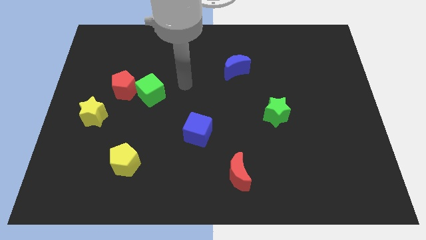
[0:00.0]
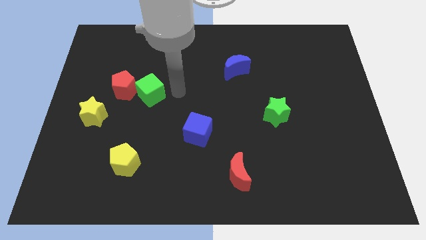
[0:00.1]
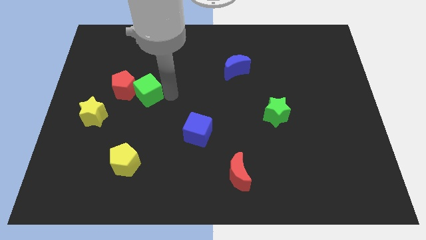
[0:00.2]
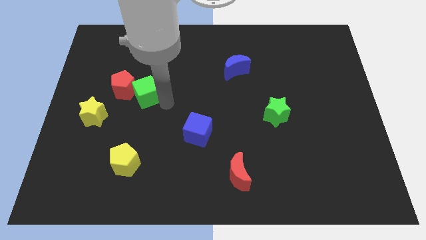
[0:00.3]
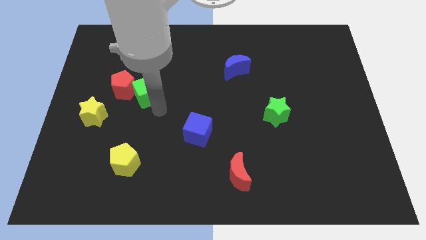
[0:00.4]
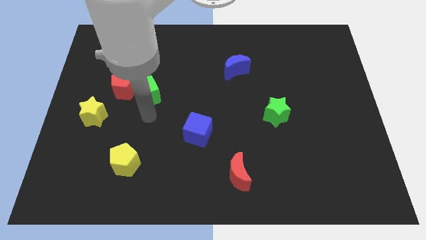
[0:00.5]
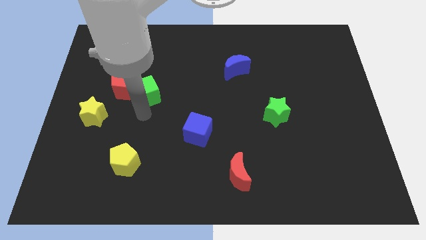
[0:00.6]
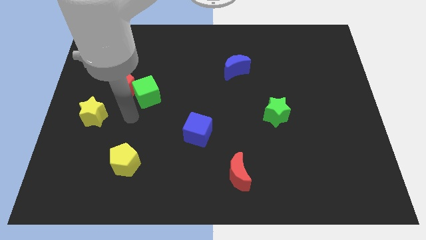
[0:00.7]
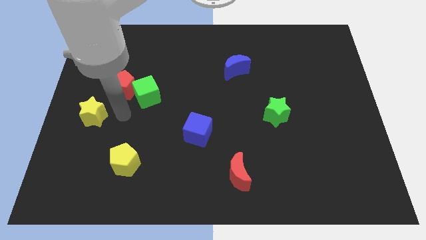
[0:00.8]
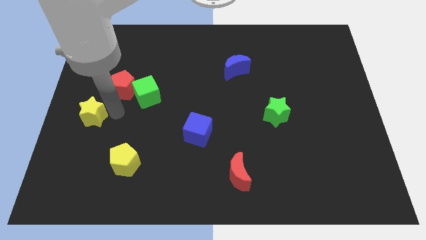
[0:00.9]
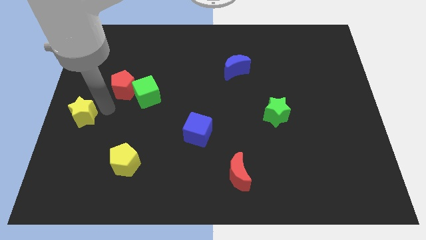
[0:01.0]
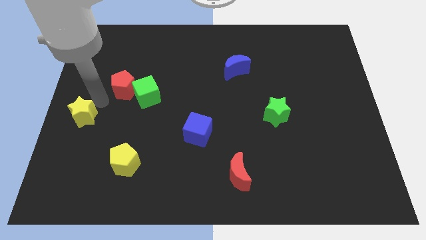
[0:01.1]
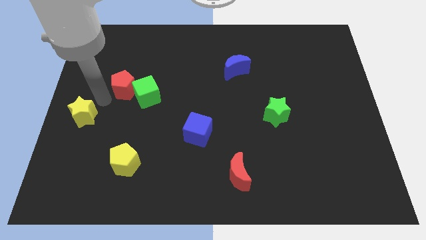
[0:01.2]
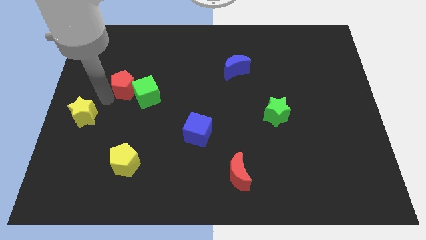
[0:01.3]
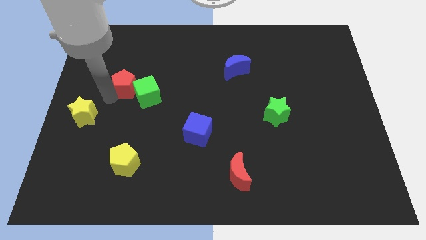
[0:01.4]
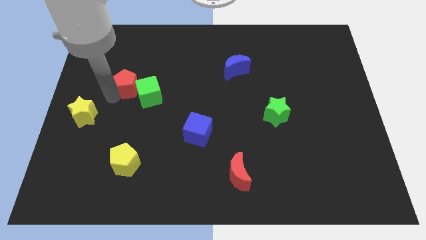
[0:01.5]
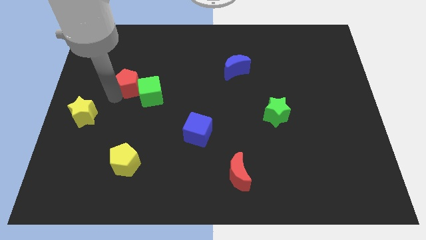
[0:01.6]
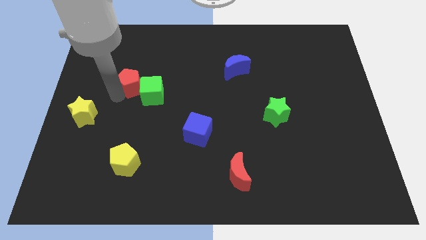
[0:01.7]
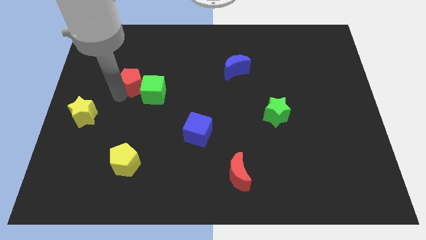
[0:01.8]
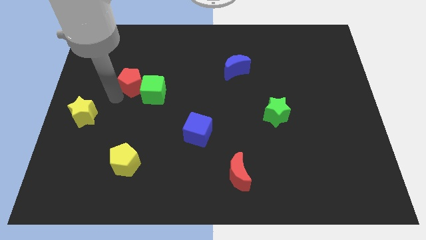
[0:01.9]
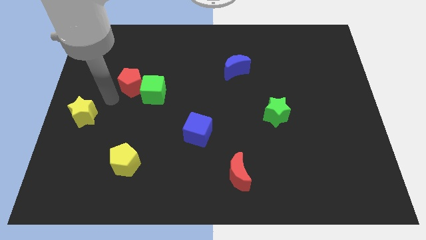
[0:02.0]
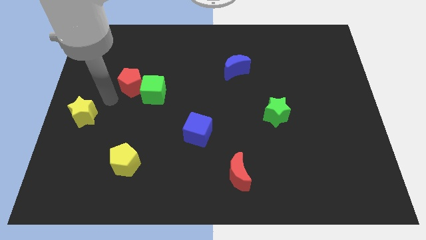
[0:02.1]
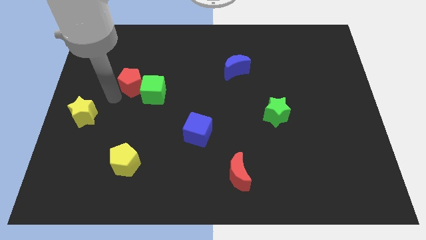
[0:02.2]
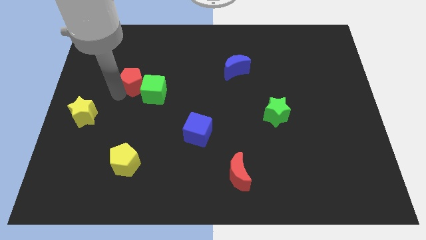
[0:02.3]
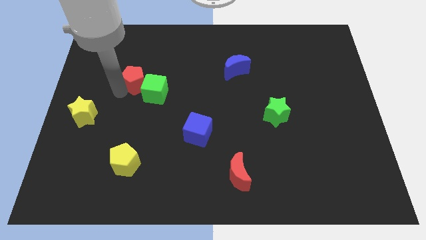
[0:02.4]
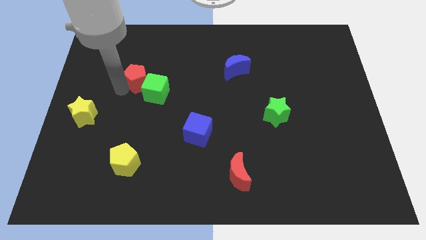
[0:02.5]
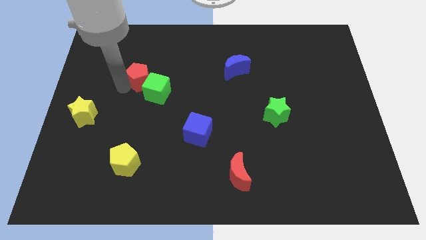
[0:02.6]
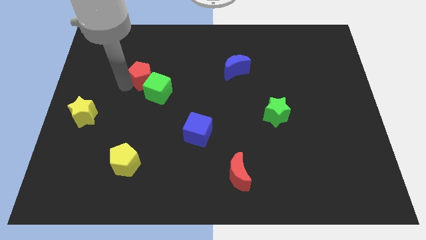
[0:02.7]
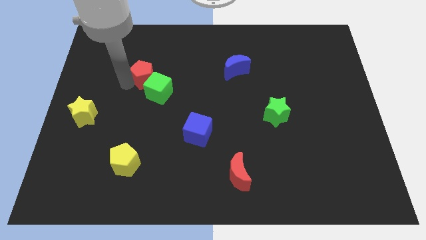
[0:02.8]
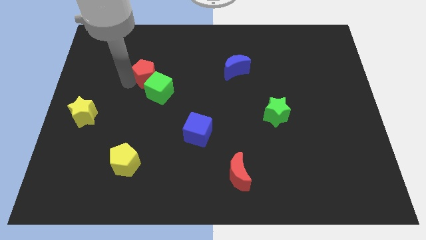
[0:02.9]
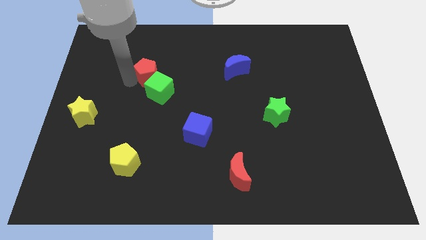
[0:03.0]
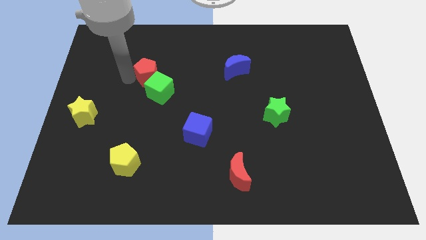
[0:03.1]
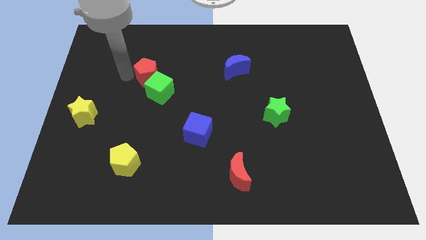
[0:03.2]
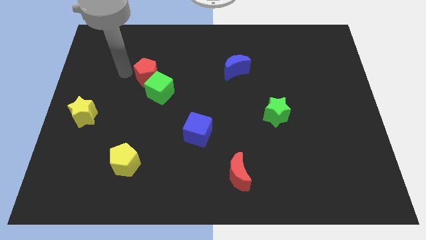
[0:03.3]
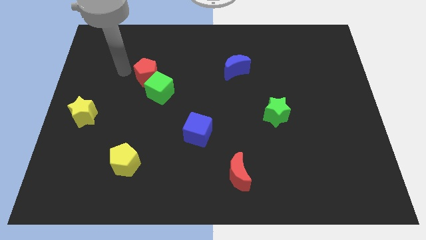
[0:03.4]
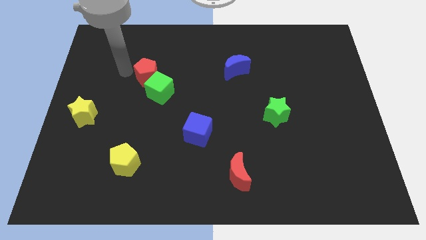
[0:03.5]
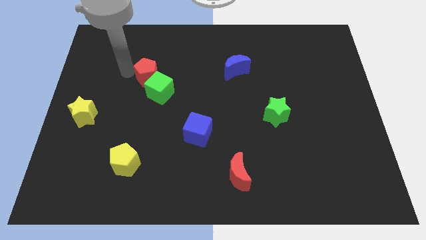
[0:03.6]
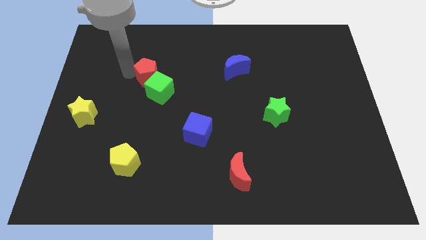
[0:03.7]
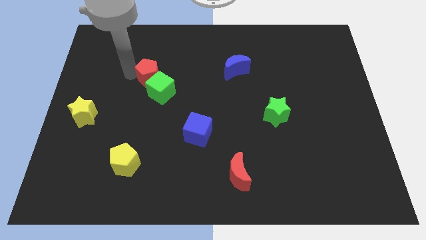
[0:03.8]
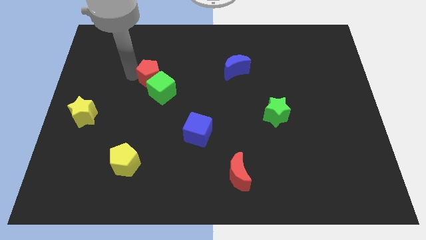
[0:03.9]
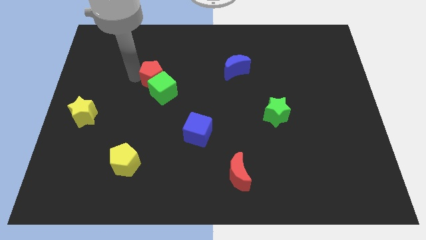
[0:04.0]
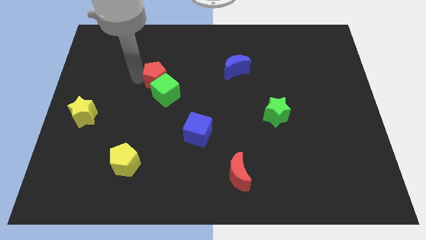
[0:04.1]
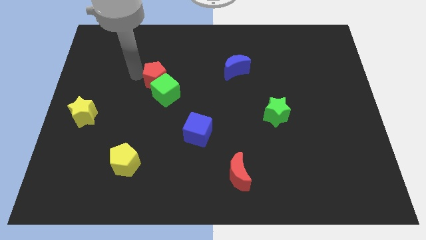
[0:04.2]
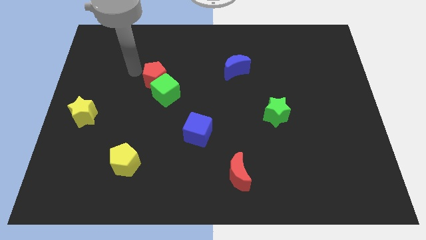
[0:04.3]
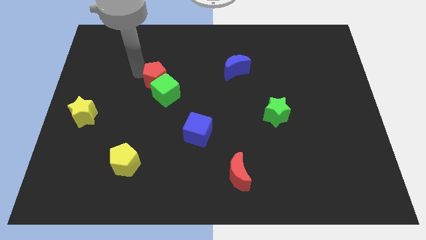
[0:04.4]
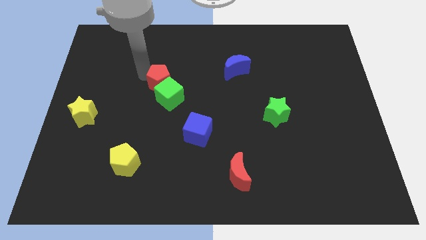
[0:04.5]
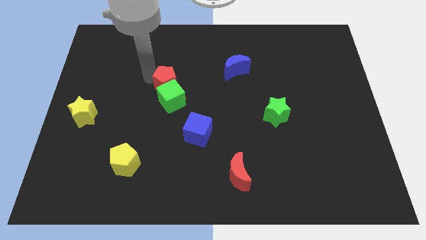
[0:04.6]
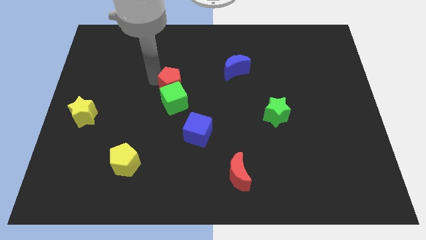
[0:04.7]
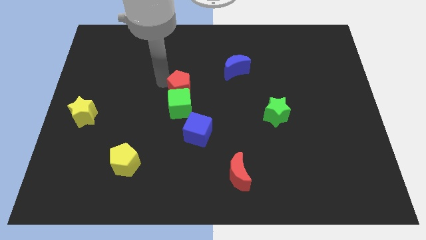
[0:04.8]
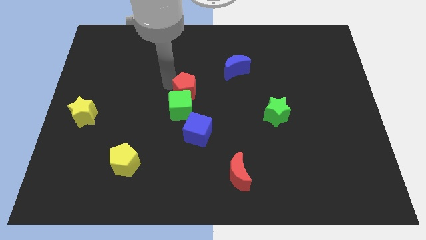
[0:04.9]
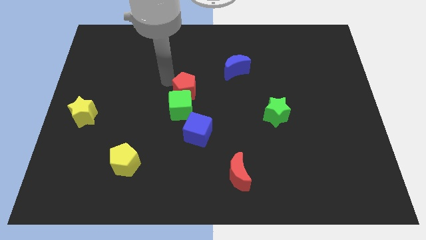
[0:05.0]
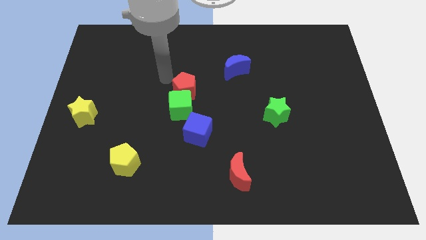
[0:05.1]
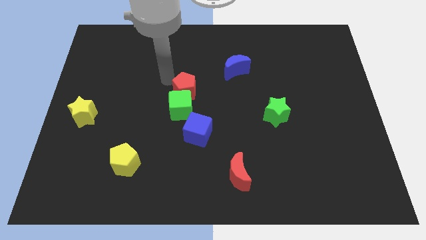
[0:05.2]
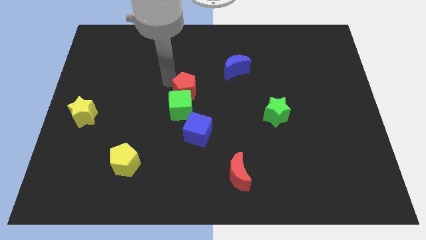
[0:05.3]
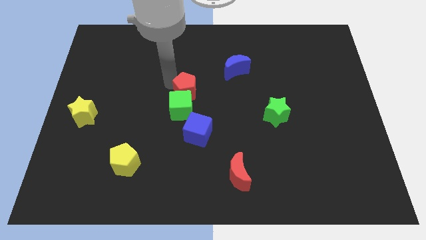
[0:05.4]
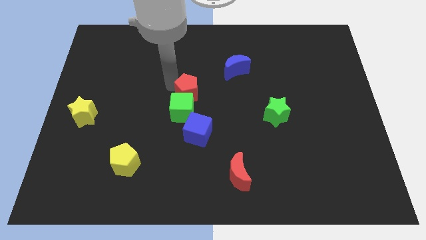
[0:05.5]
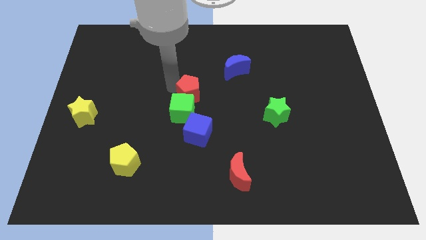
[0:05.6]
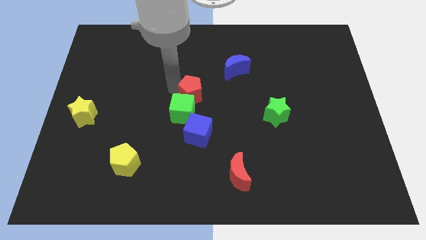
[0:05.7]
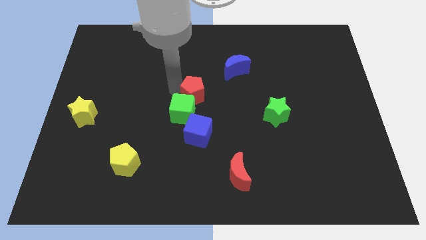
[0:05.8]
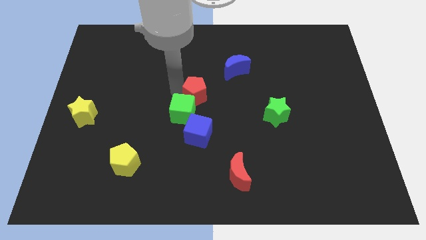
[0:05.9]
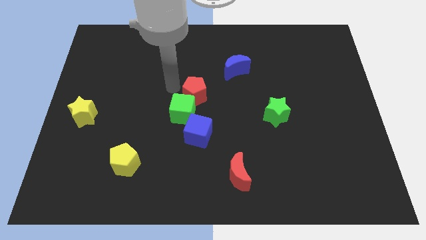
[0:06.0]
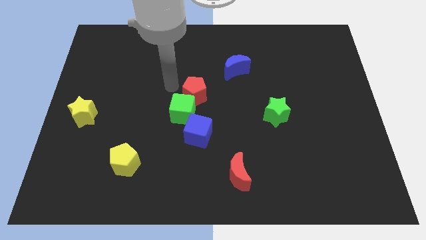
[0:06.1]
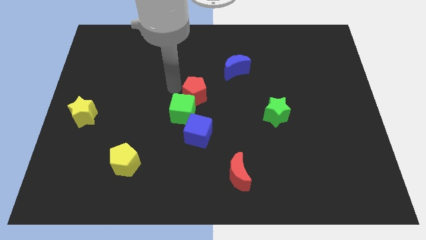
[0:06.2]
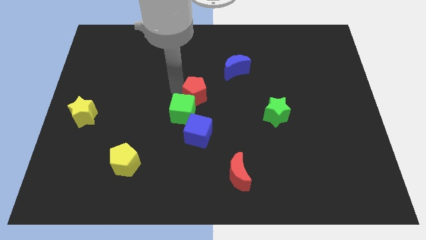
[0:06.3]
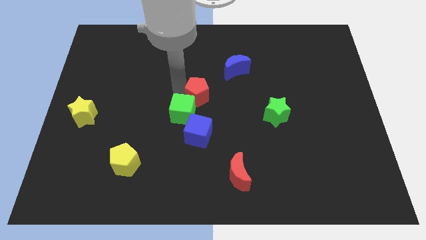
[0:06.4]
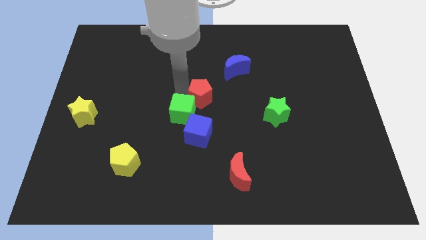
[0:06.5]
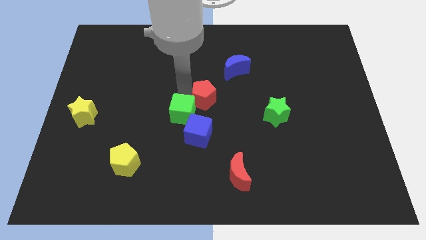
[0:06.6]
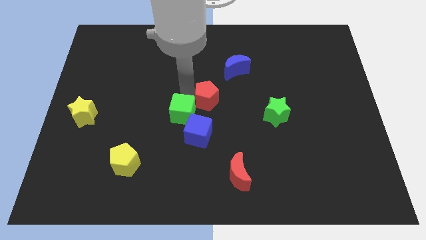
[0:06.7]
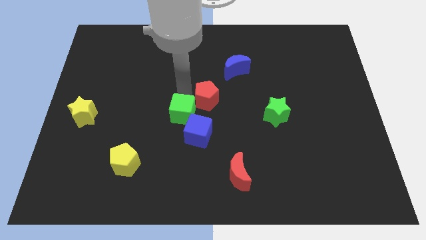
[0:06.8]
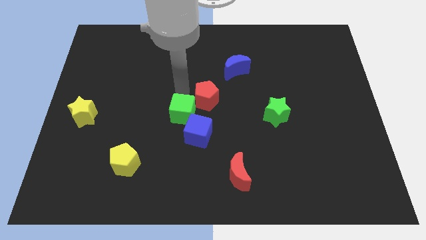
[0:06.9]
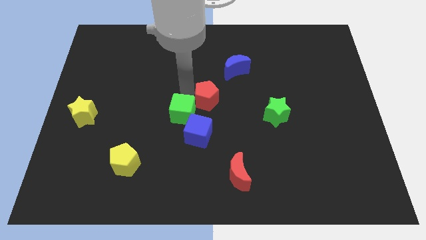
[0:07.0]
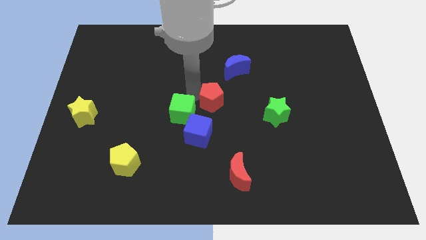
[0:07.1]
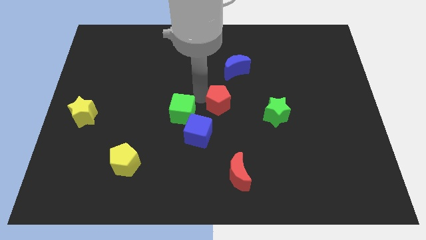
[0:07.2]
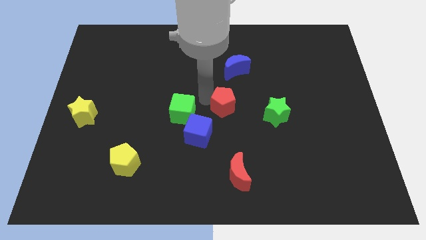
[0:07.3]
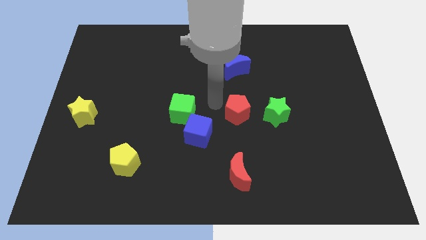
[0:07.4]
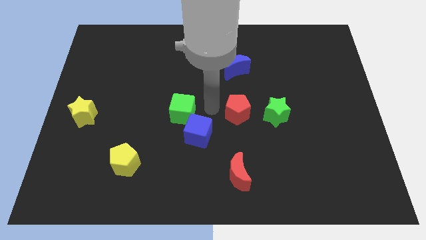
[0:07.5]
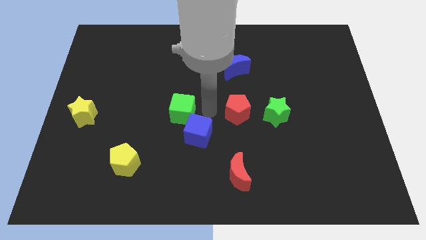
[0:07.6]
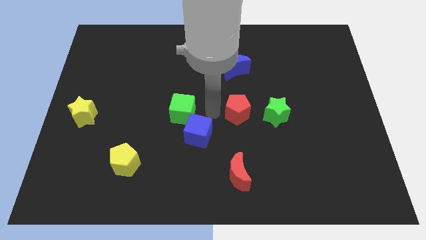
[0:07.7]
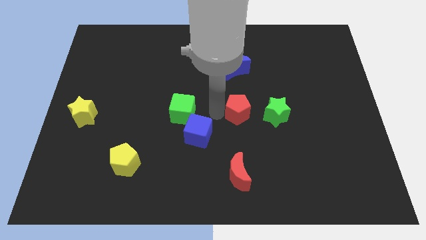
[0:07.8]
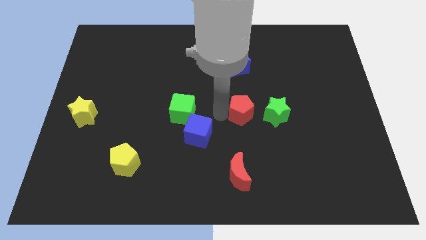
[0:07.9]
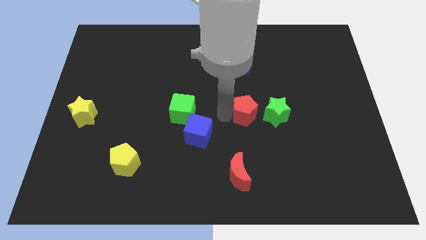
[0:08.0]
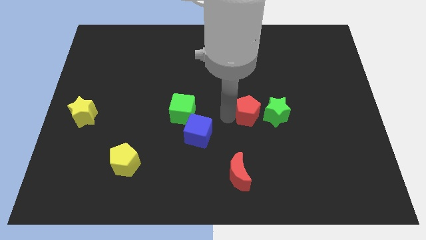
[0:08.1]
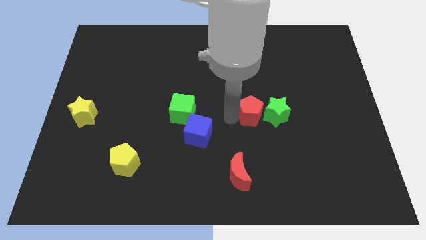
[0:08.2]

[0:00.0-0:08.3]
slide the red pentagon next to the green star
